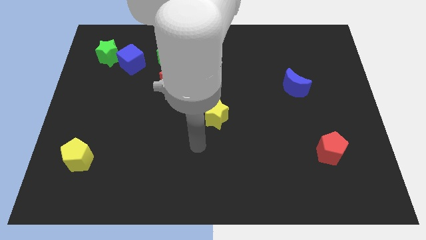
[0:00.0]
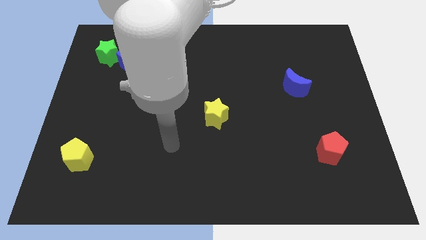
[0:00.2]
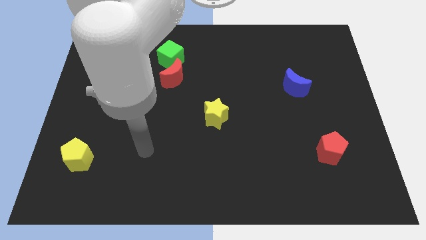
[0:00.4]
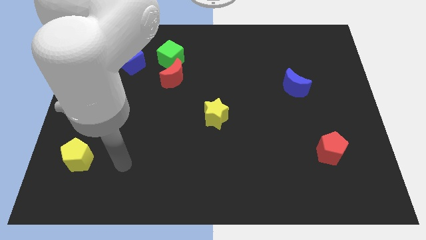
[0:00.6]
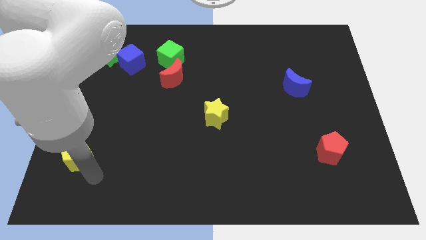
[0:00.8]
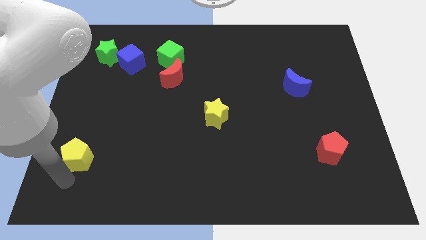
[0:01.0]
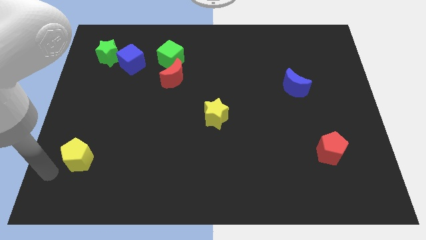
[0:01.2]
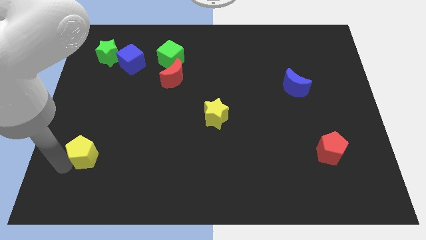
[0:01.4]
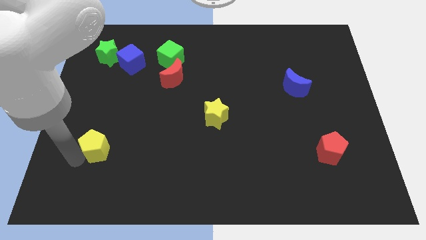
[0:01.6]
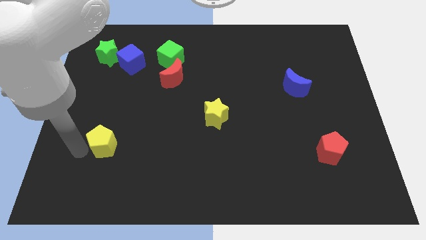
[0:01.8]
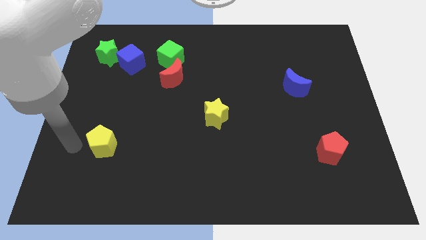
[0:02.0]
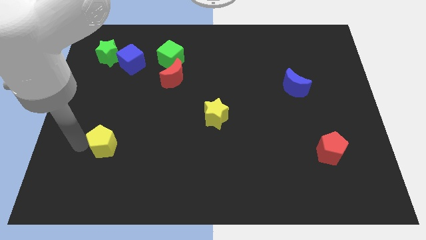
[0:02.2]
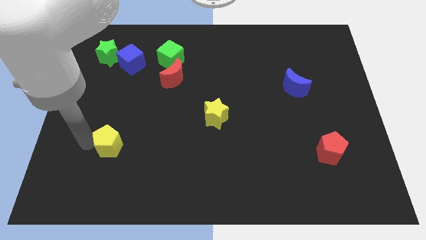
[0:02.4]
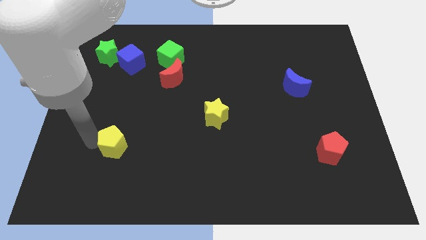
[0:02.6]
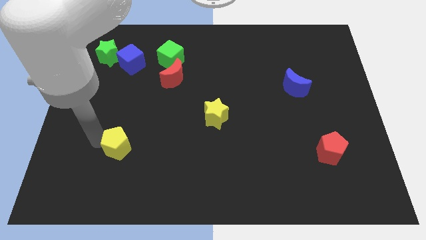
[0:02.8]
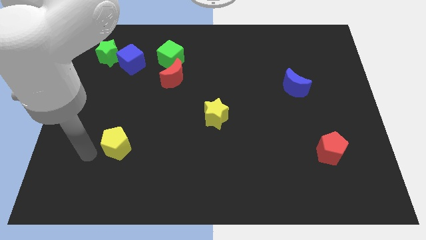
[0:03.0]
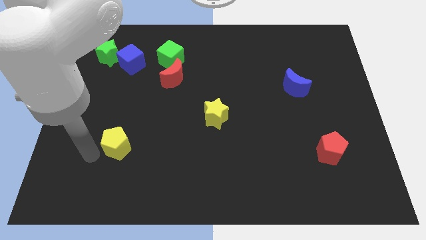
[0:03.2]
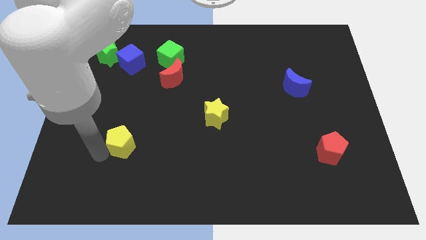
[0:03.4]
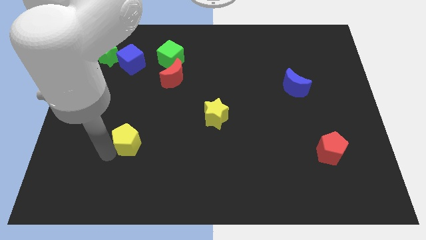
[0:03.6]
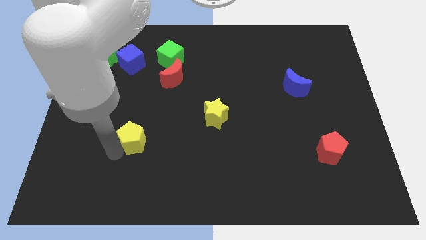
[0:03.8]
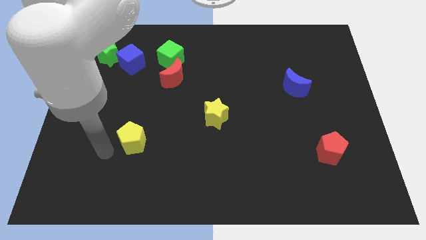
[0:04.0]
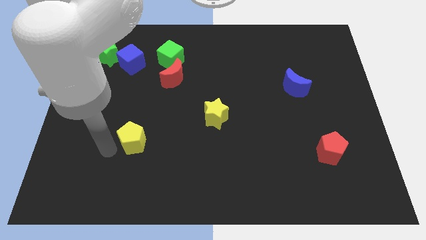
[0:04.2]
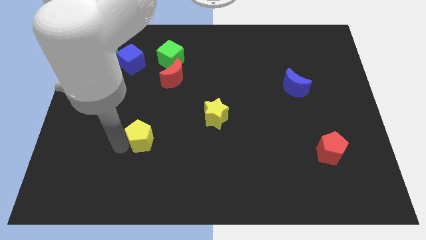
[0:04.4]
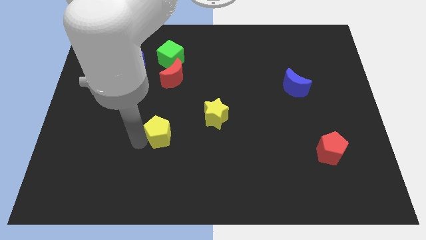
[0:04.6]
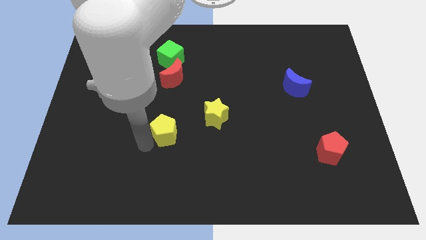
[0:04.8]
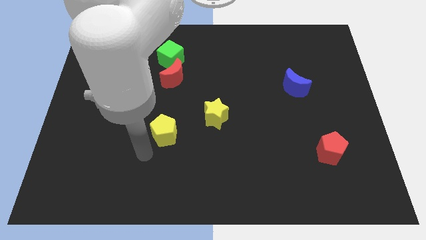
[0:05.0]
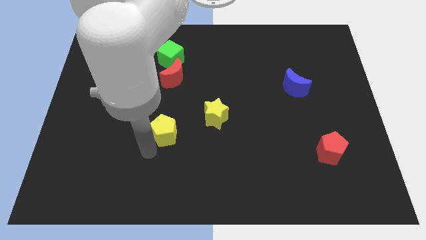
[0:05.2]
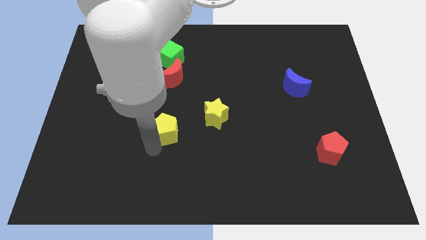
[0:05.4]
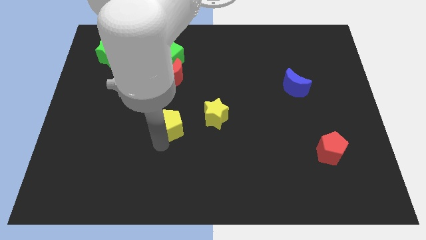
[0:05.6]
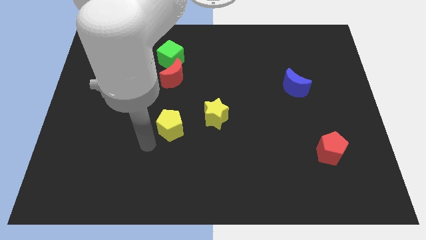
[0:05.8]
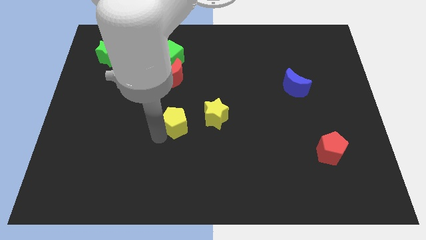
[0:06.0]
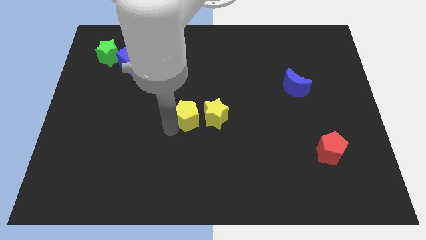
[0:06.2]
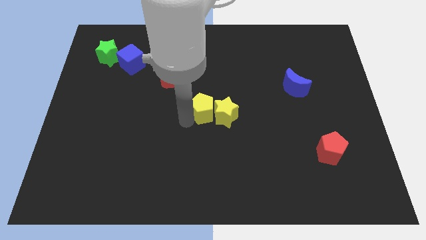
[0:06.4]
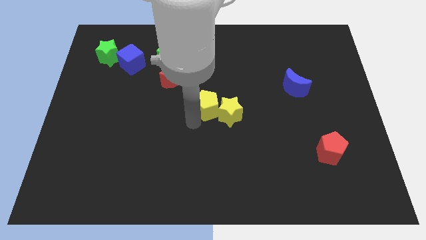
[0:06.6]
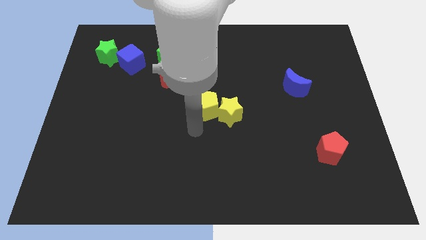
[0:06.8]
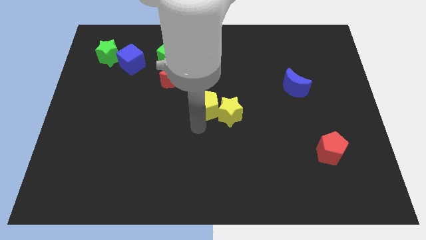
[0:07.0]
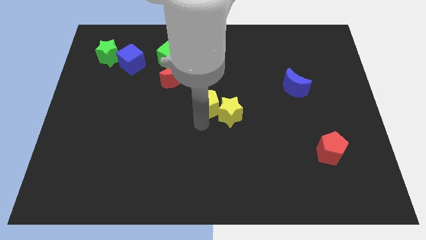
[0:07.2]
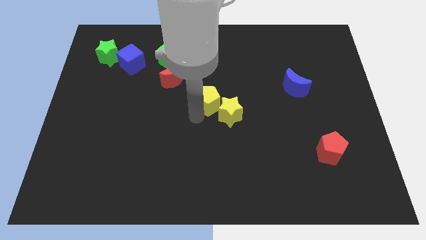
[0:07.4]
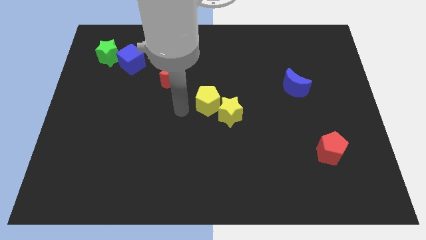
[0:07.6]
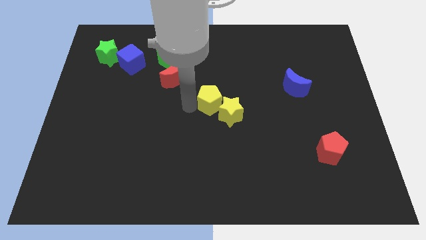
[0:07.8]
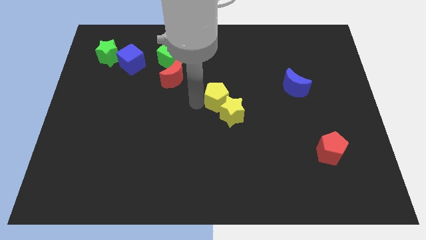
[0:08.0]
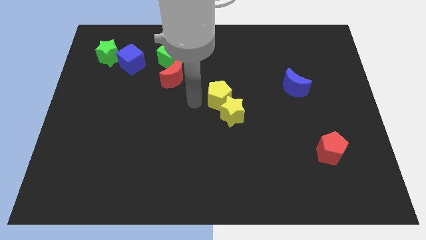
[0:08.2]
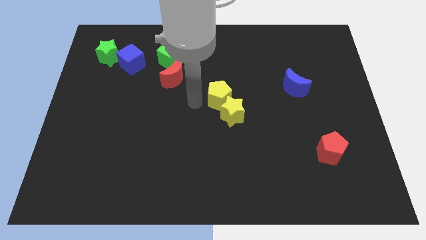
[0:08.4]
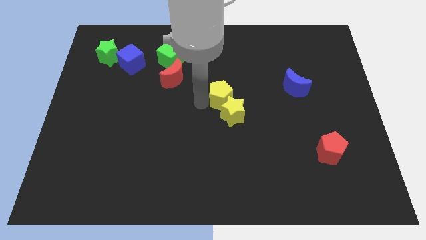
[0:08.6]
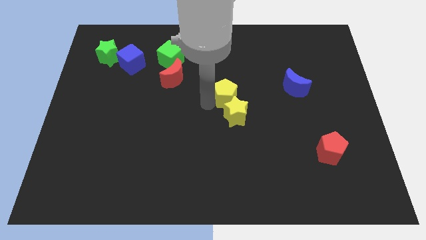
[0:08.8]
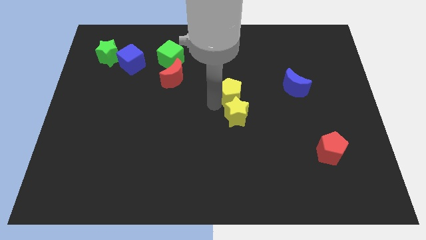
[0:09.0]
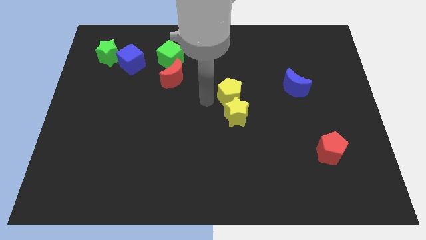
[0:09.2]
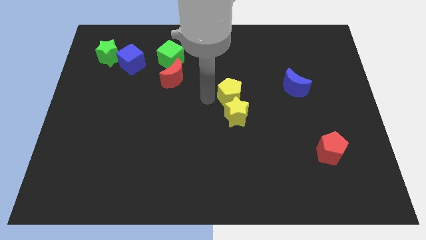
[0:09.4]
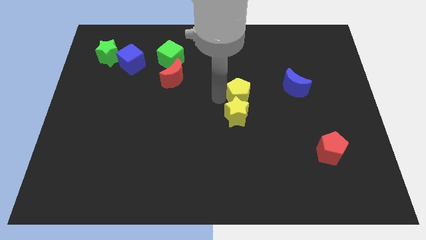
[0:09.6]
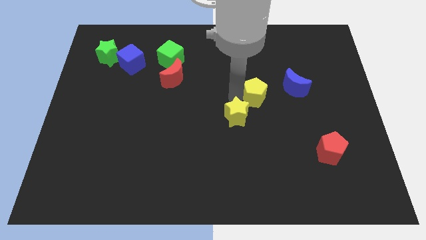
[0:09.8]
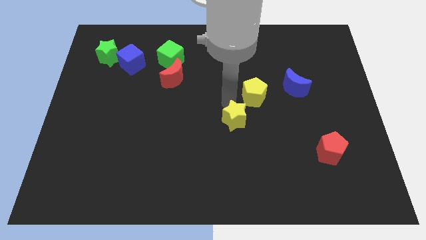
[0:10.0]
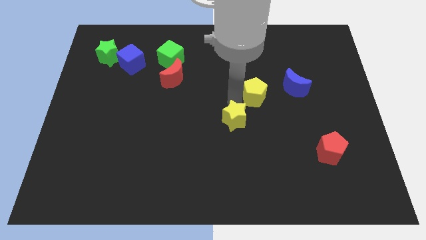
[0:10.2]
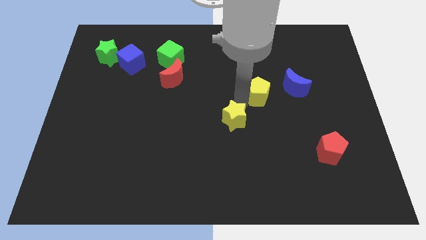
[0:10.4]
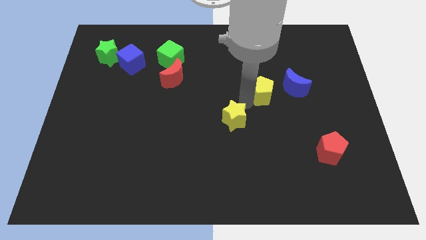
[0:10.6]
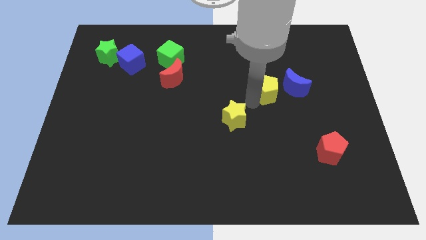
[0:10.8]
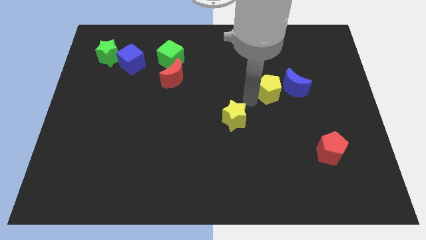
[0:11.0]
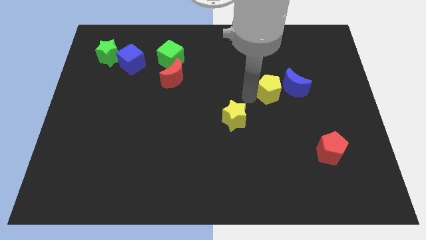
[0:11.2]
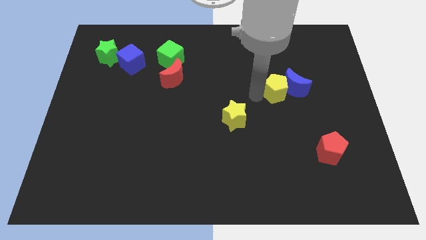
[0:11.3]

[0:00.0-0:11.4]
put the yellow pentagon towards the blue moon

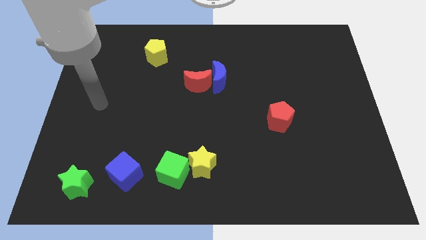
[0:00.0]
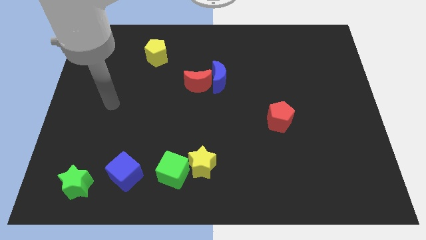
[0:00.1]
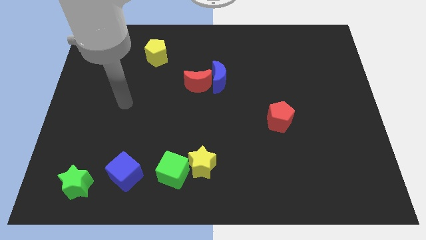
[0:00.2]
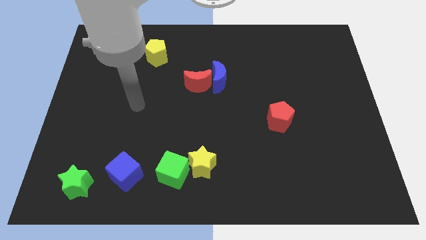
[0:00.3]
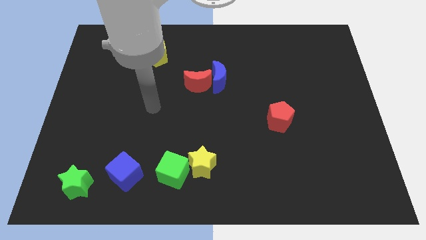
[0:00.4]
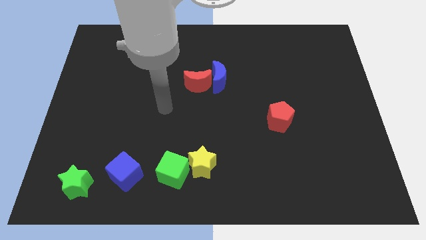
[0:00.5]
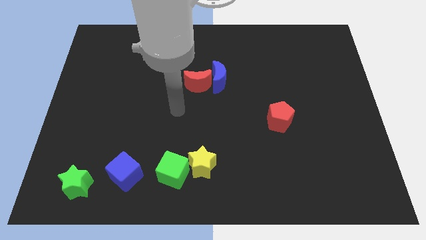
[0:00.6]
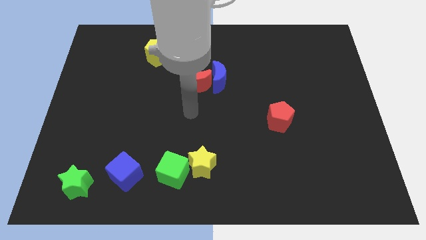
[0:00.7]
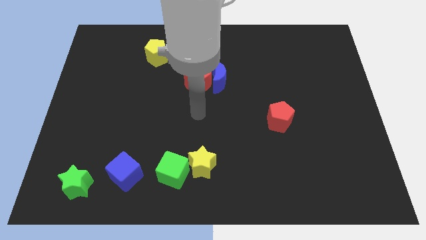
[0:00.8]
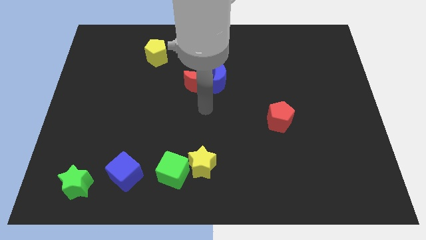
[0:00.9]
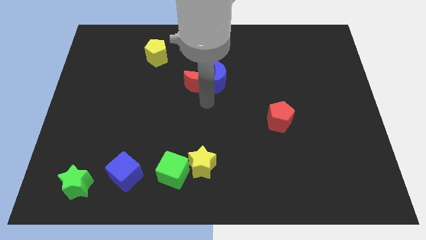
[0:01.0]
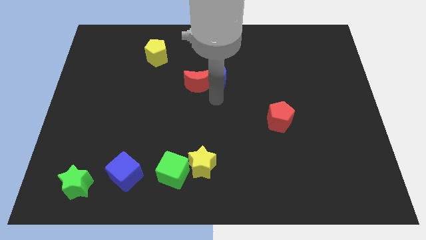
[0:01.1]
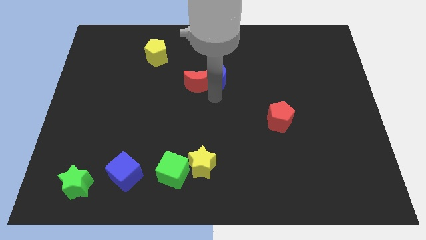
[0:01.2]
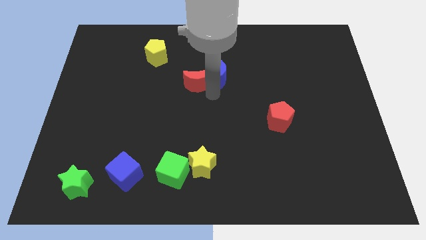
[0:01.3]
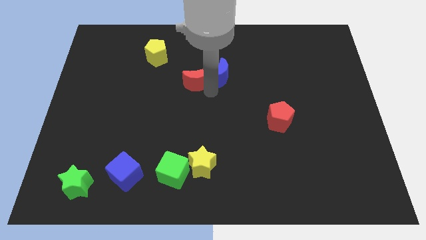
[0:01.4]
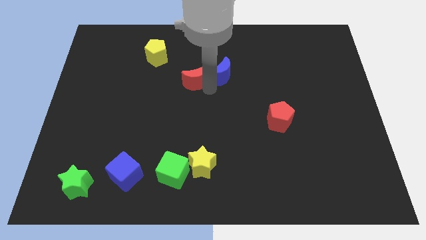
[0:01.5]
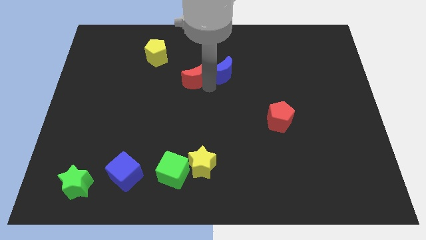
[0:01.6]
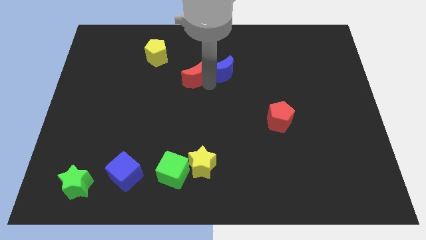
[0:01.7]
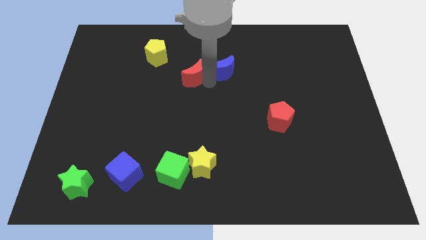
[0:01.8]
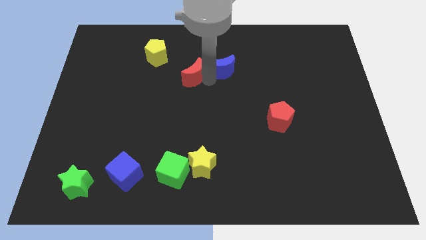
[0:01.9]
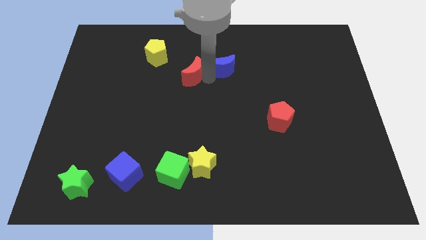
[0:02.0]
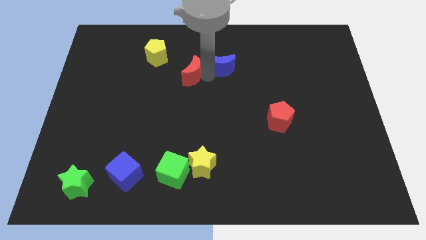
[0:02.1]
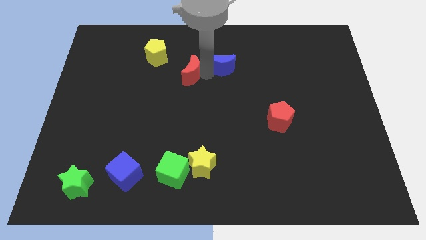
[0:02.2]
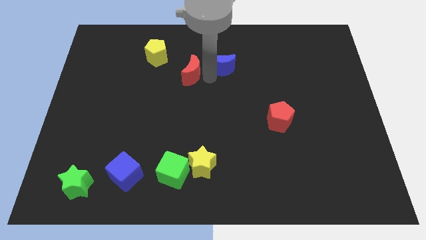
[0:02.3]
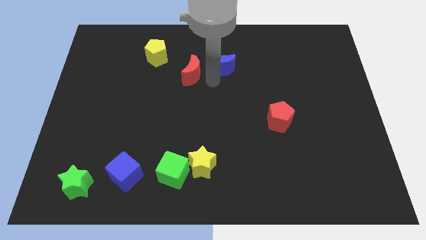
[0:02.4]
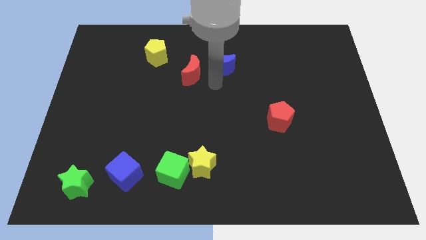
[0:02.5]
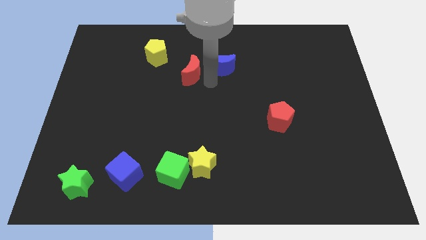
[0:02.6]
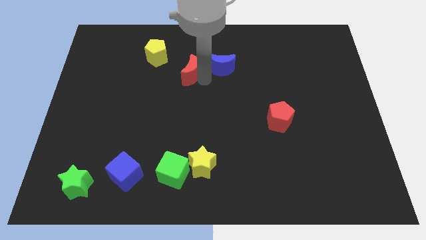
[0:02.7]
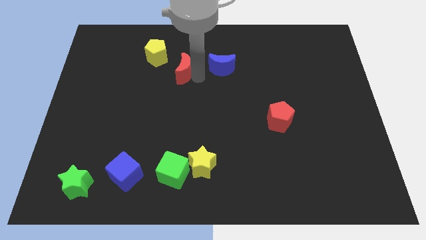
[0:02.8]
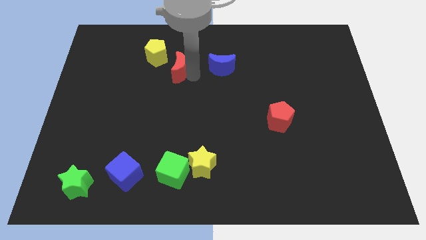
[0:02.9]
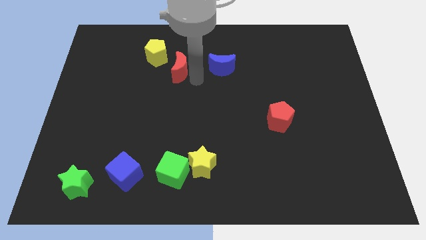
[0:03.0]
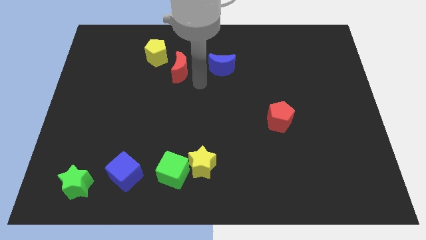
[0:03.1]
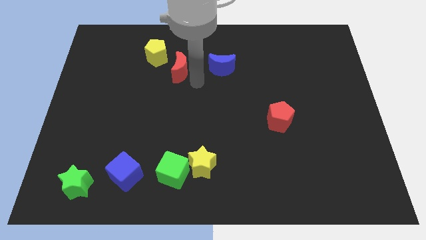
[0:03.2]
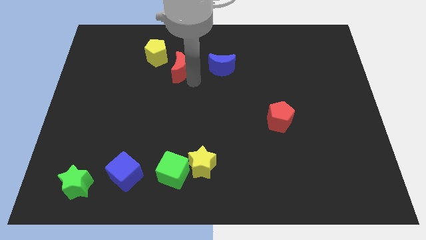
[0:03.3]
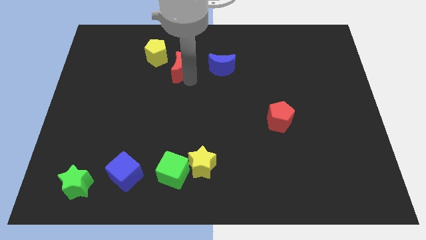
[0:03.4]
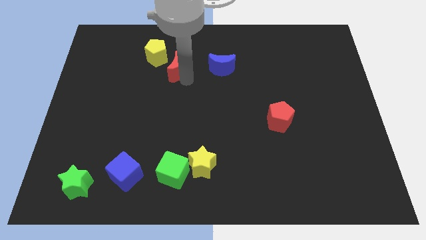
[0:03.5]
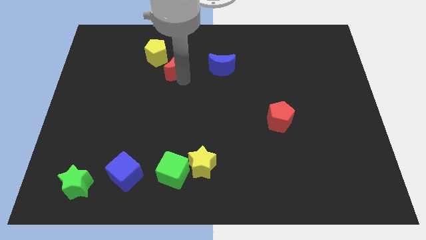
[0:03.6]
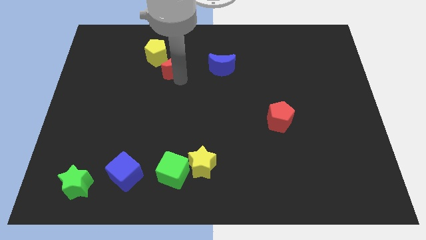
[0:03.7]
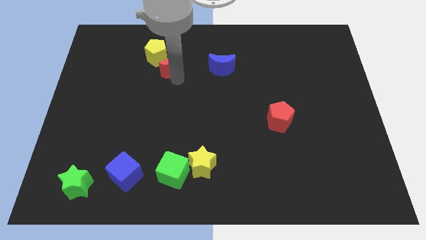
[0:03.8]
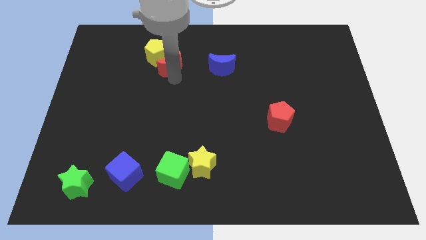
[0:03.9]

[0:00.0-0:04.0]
push the red moon towards the yellow pentagon
